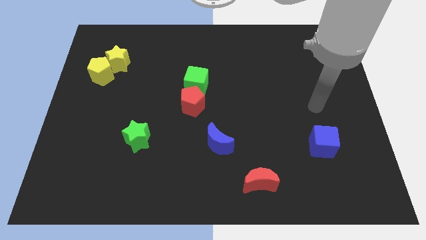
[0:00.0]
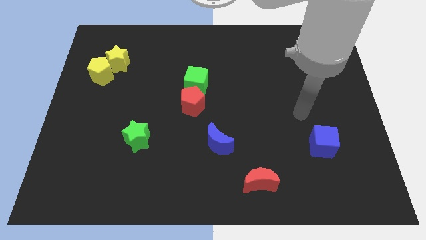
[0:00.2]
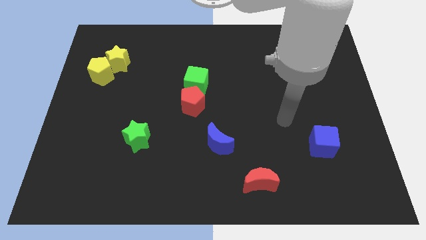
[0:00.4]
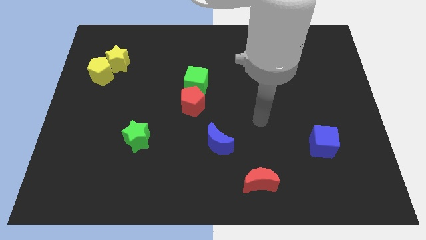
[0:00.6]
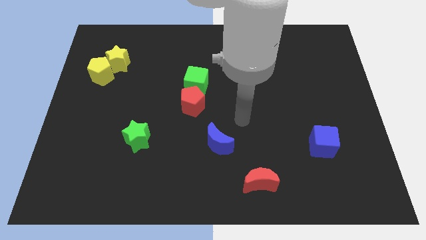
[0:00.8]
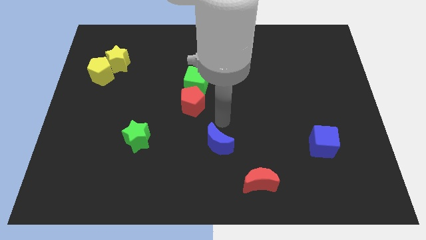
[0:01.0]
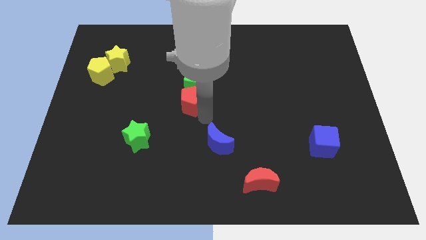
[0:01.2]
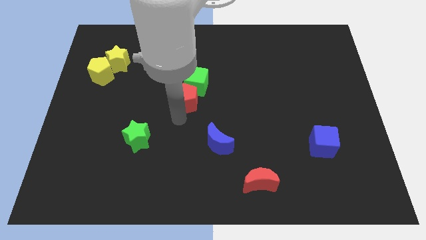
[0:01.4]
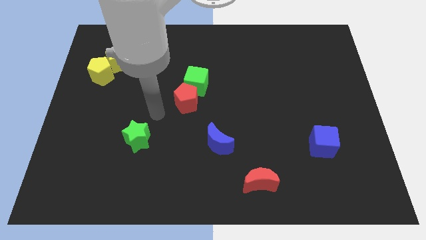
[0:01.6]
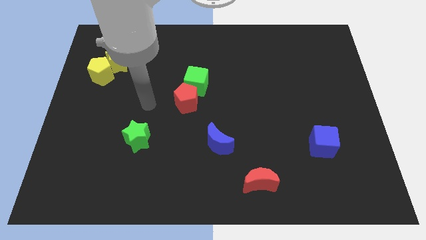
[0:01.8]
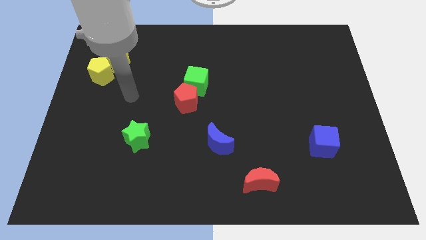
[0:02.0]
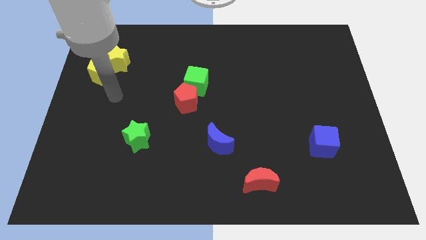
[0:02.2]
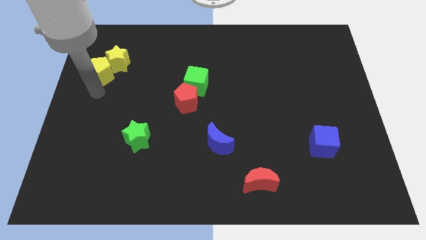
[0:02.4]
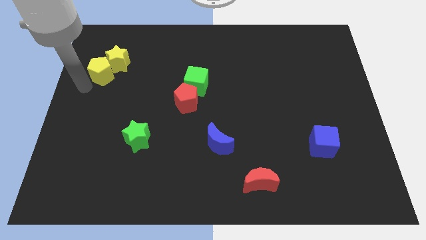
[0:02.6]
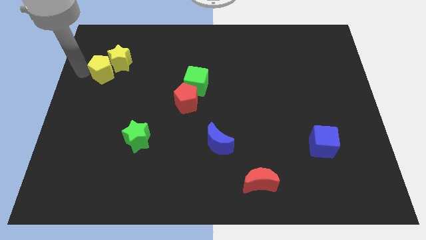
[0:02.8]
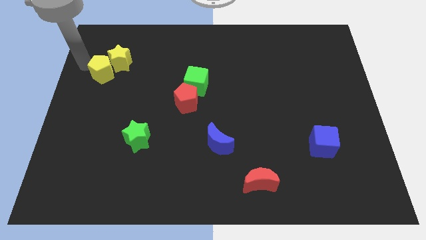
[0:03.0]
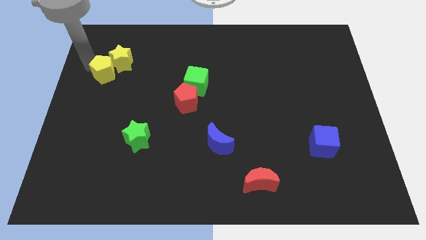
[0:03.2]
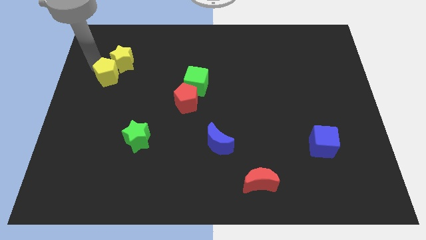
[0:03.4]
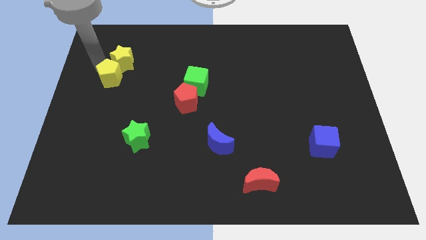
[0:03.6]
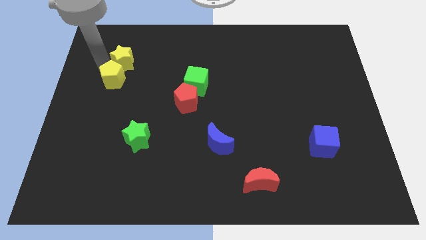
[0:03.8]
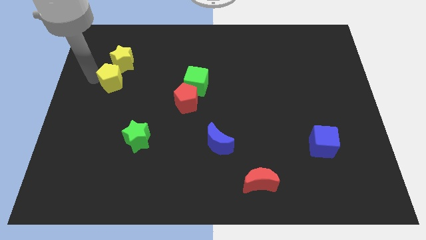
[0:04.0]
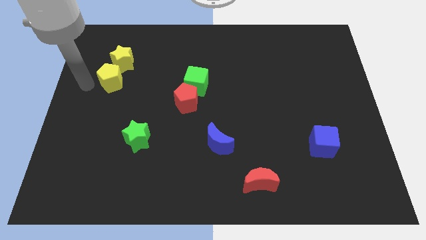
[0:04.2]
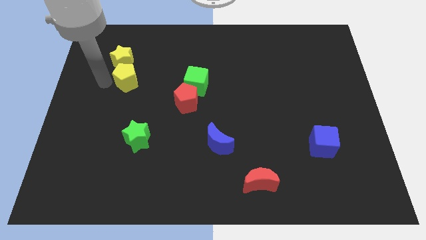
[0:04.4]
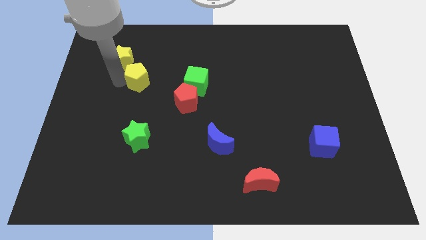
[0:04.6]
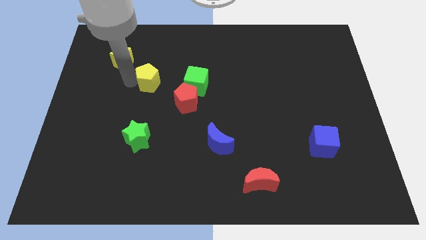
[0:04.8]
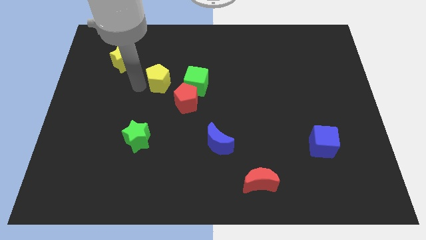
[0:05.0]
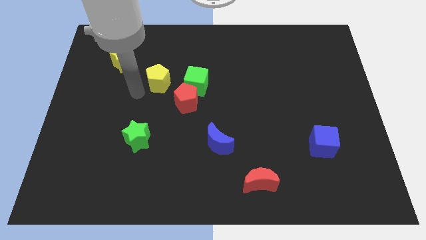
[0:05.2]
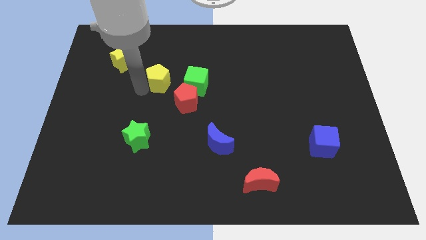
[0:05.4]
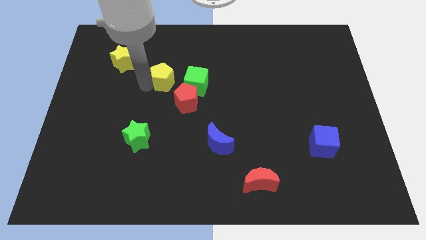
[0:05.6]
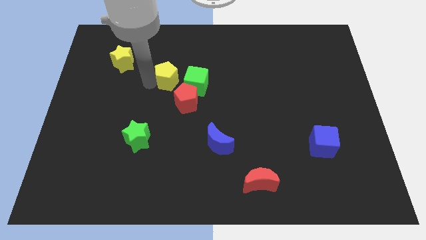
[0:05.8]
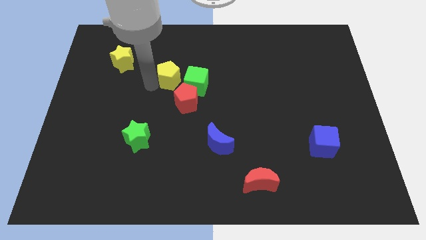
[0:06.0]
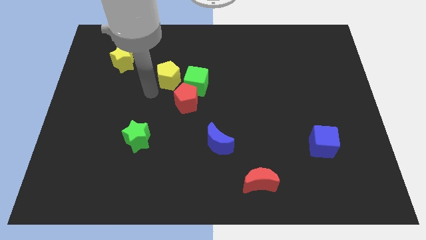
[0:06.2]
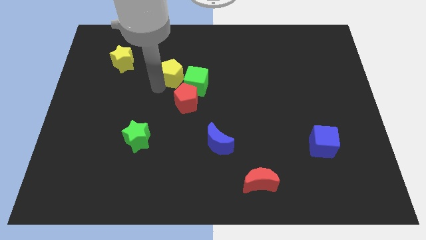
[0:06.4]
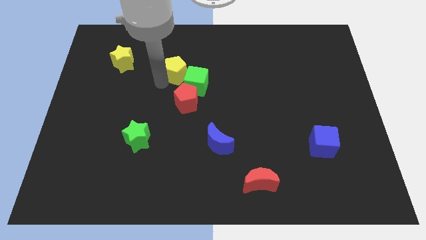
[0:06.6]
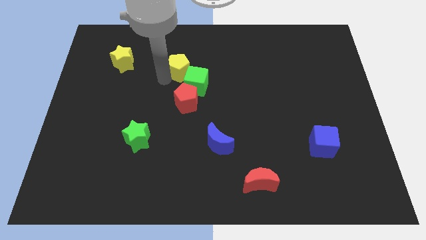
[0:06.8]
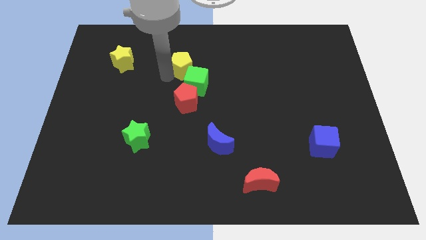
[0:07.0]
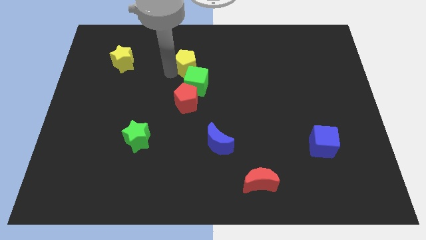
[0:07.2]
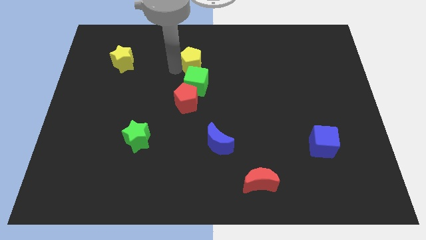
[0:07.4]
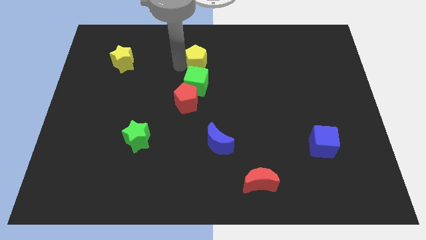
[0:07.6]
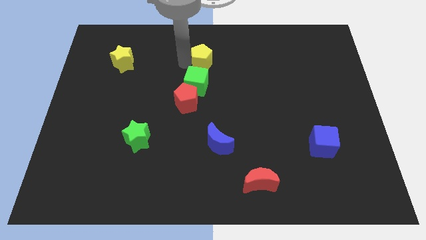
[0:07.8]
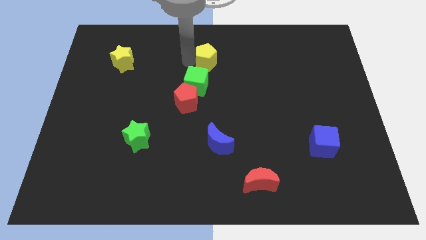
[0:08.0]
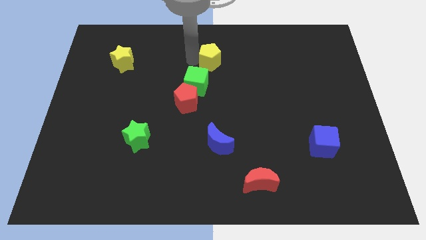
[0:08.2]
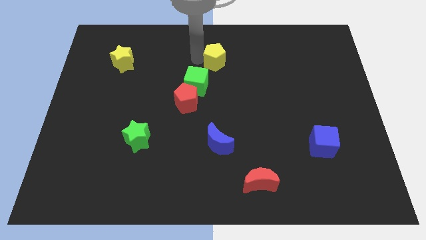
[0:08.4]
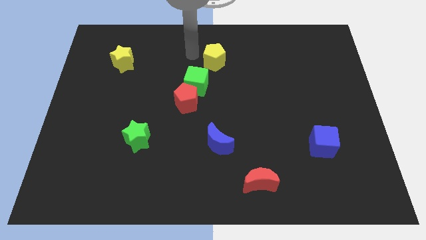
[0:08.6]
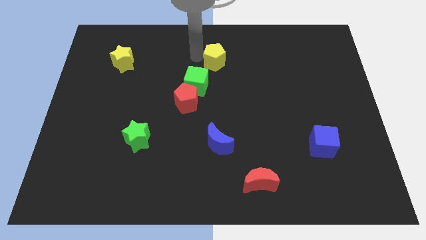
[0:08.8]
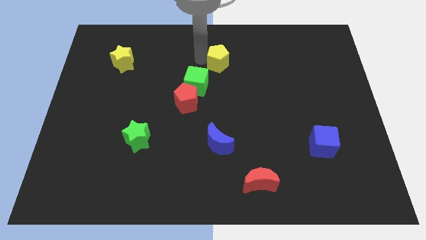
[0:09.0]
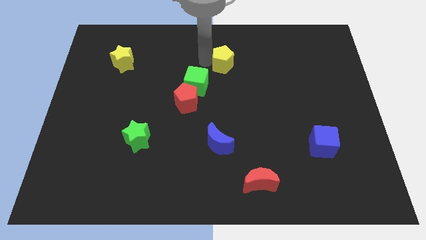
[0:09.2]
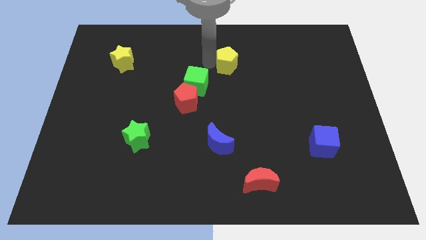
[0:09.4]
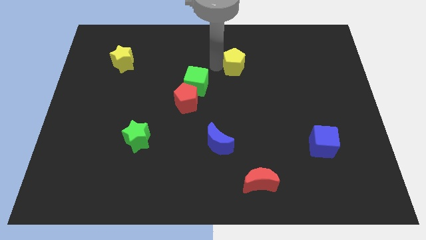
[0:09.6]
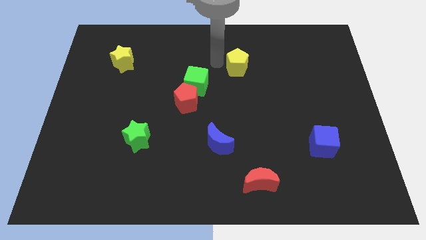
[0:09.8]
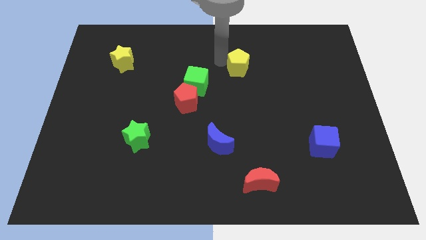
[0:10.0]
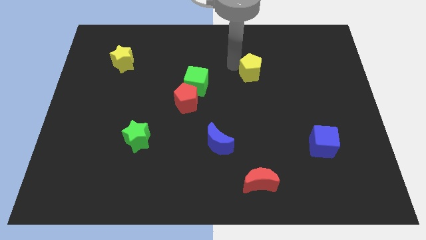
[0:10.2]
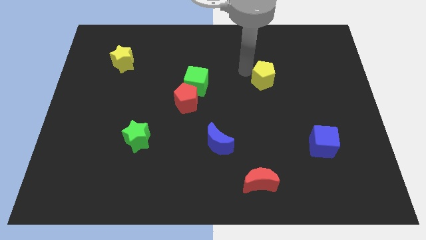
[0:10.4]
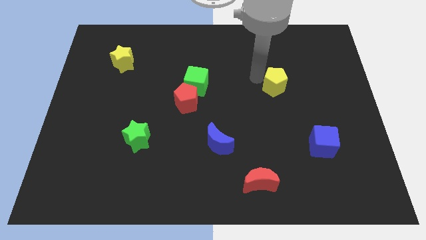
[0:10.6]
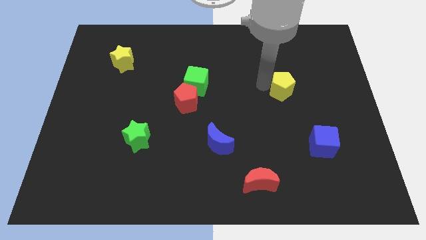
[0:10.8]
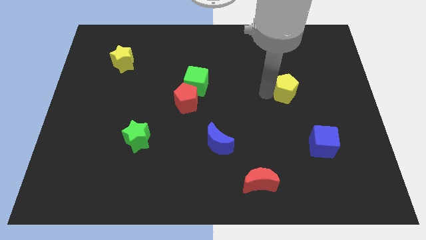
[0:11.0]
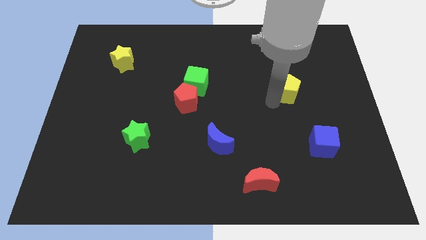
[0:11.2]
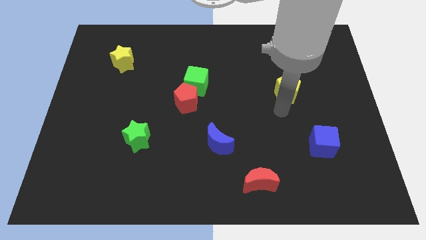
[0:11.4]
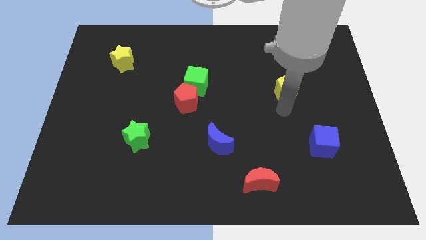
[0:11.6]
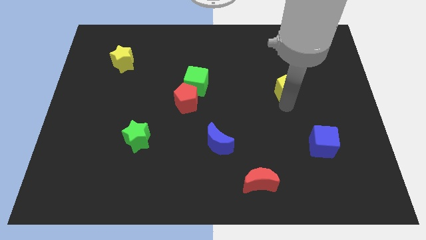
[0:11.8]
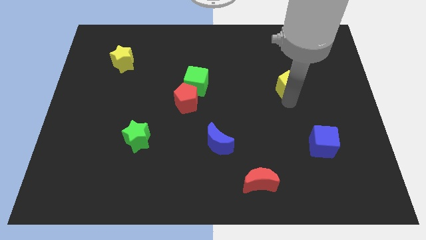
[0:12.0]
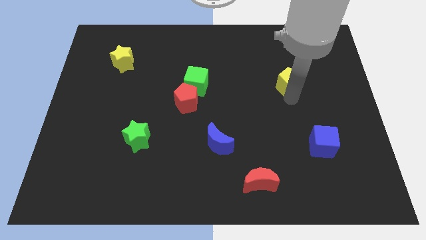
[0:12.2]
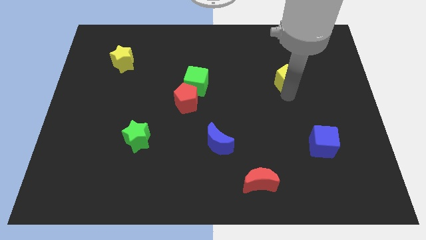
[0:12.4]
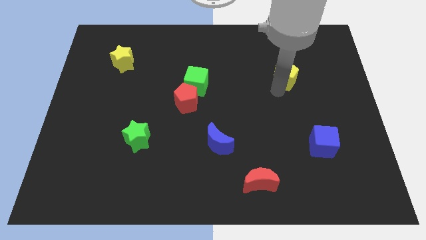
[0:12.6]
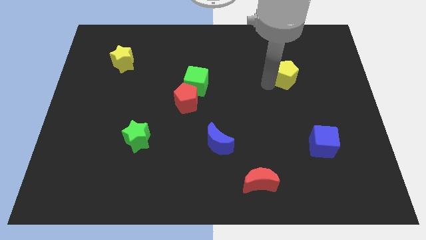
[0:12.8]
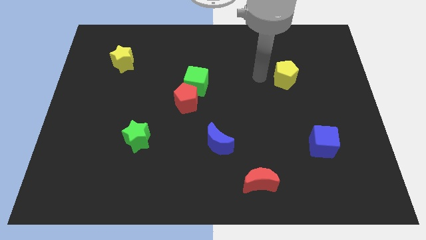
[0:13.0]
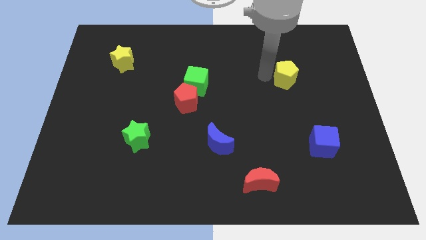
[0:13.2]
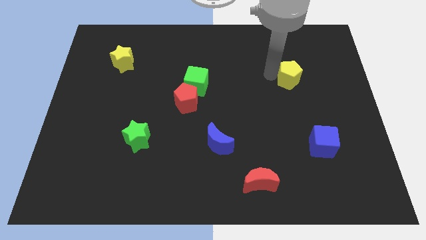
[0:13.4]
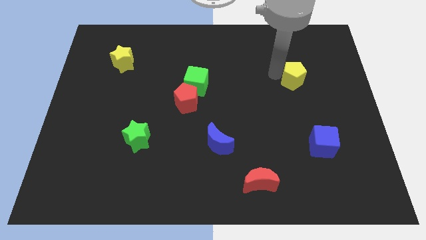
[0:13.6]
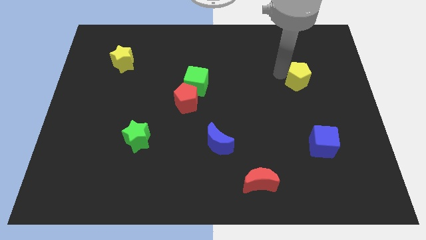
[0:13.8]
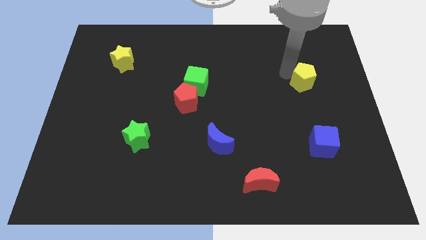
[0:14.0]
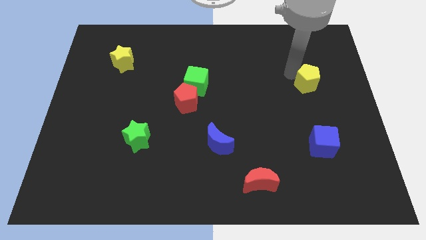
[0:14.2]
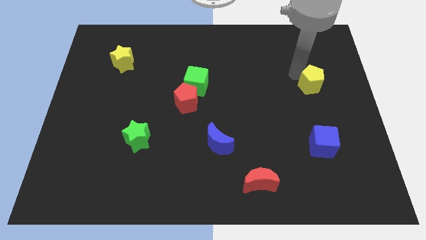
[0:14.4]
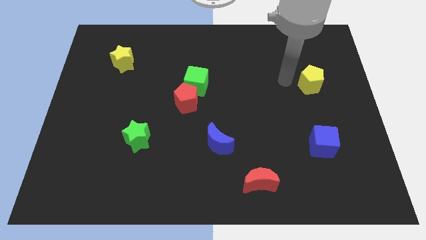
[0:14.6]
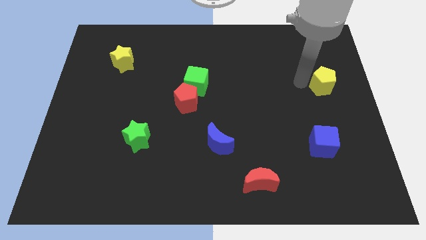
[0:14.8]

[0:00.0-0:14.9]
slide the yellow pentagon to the right side
